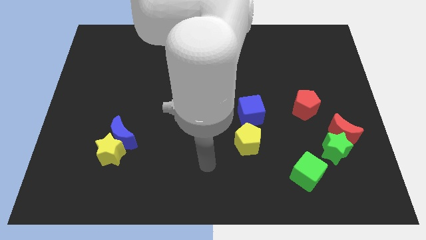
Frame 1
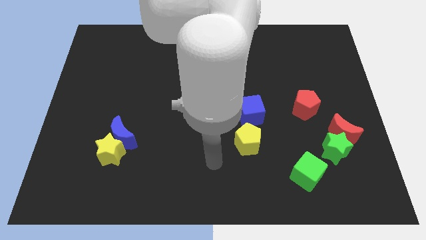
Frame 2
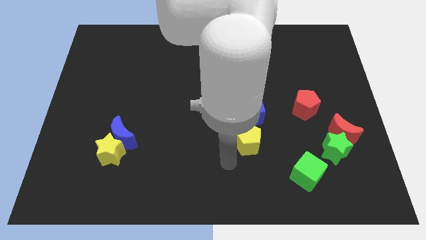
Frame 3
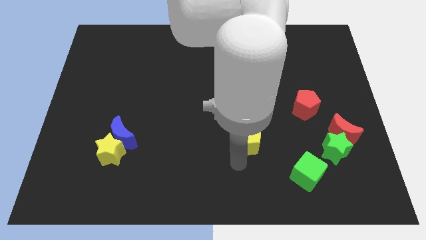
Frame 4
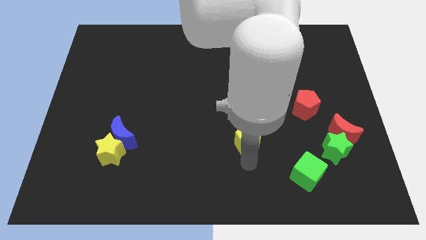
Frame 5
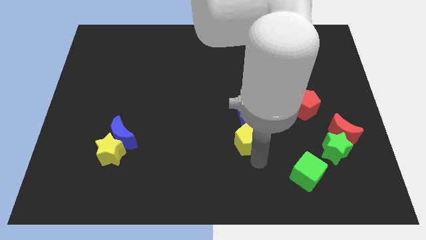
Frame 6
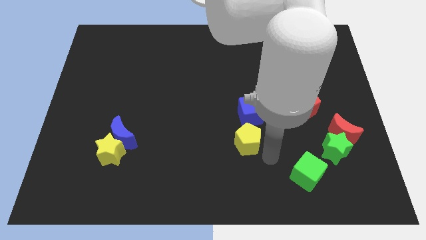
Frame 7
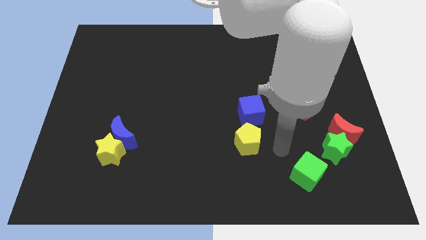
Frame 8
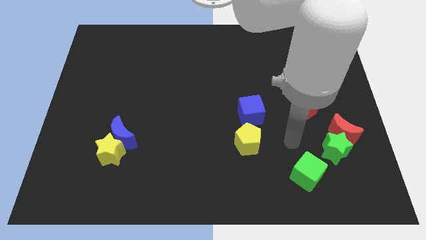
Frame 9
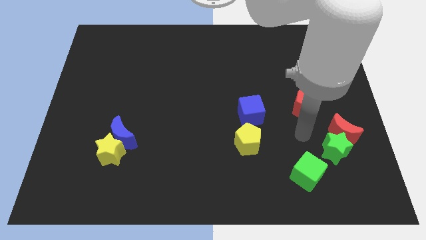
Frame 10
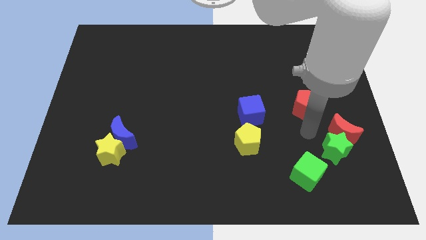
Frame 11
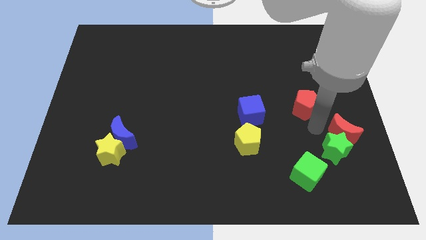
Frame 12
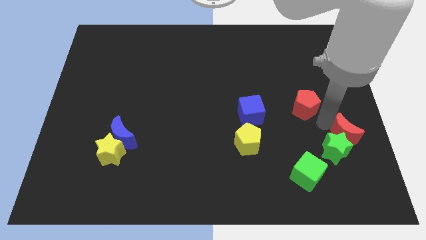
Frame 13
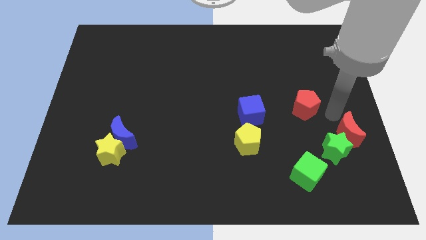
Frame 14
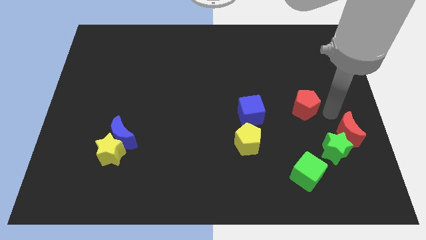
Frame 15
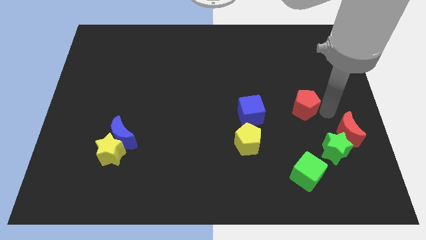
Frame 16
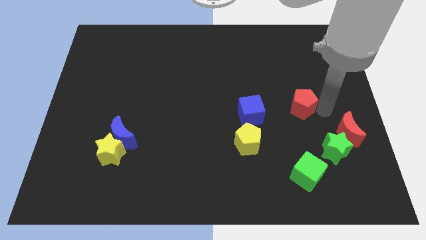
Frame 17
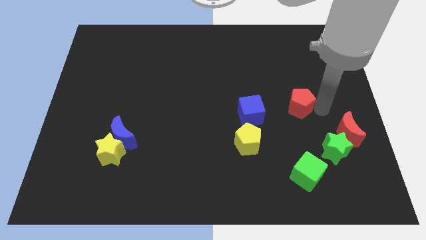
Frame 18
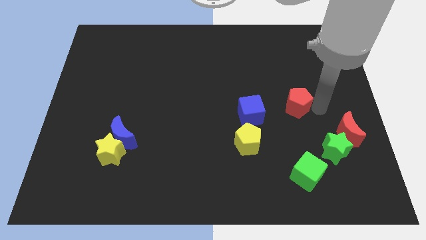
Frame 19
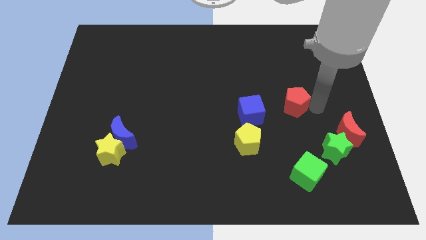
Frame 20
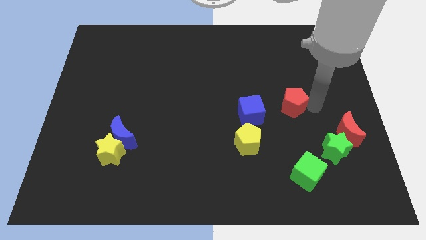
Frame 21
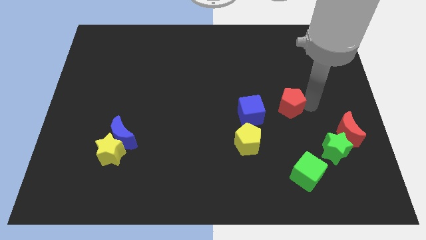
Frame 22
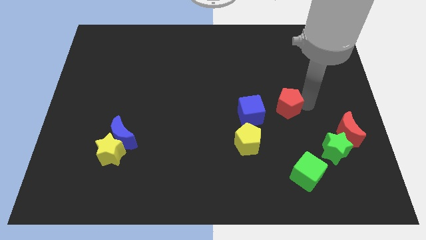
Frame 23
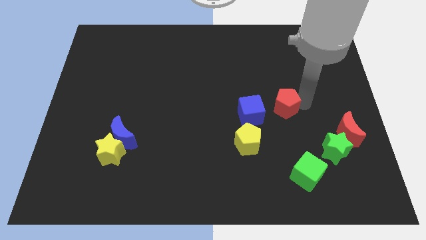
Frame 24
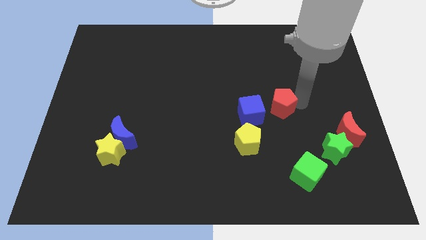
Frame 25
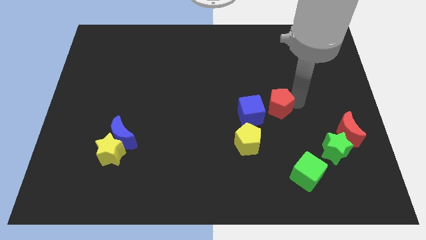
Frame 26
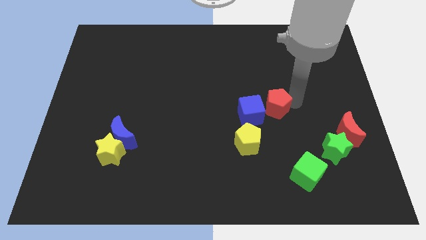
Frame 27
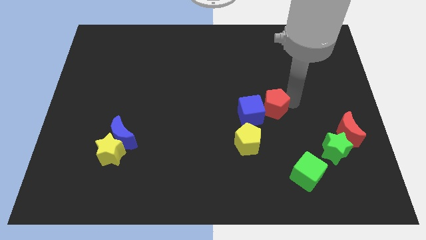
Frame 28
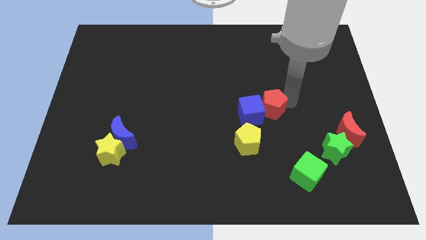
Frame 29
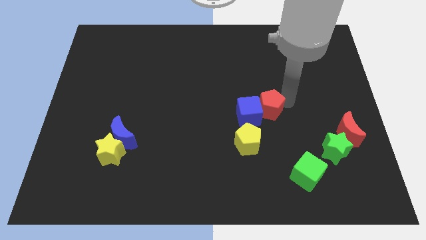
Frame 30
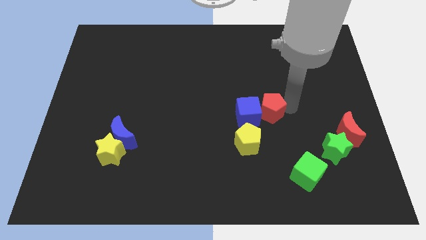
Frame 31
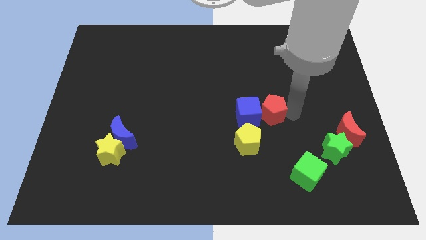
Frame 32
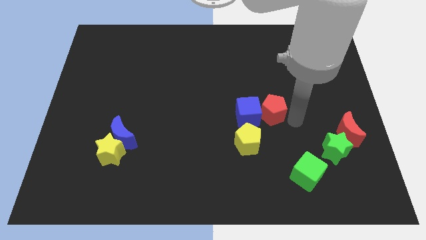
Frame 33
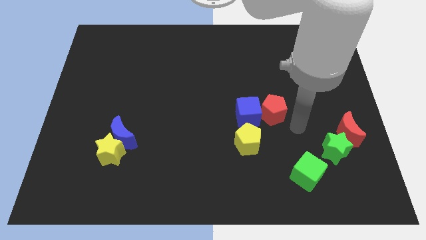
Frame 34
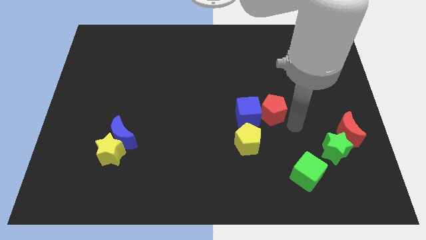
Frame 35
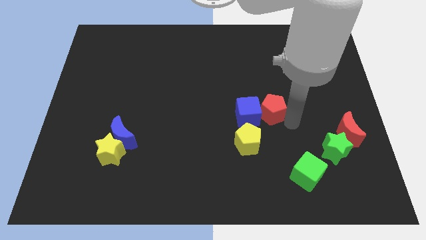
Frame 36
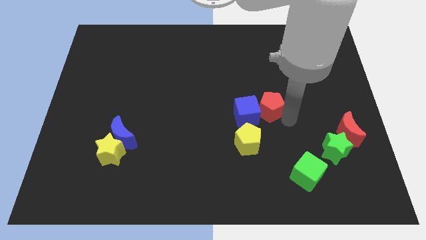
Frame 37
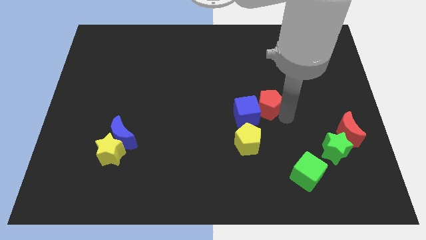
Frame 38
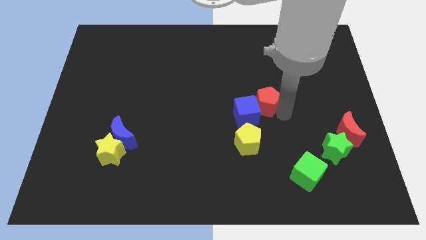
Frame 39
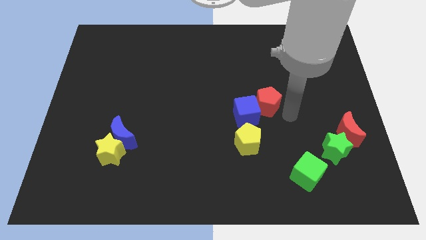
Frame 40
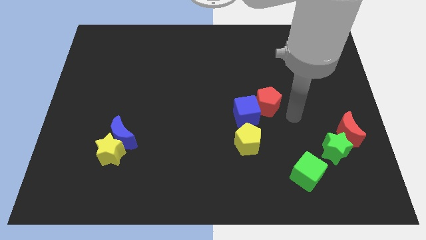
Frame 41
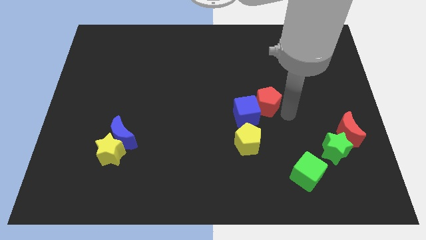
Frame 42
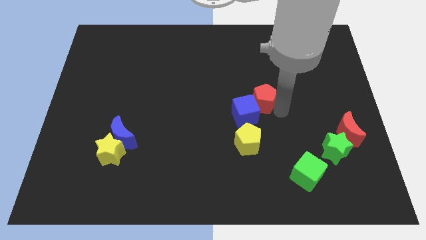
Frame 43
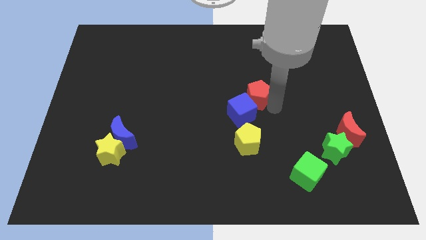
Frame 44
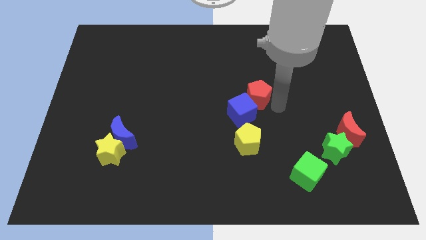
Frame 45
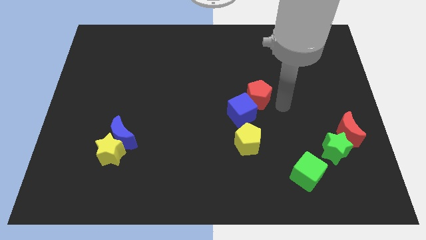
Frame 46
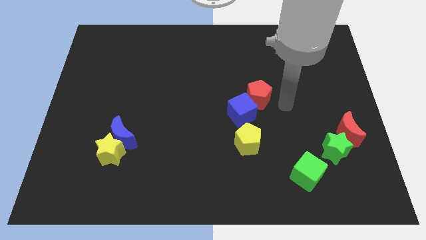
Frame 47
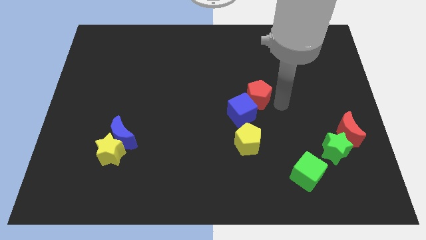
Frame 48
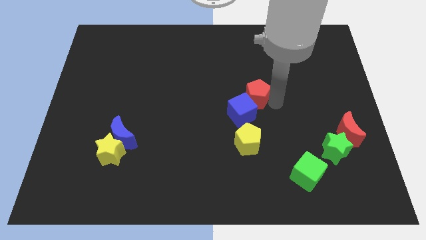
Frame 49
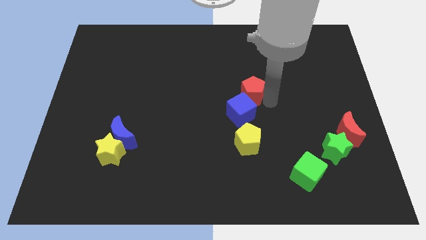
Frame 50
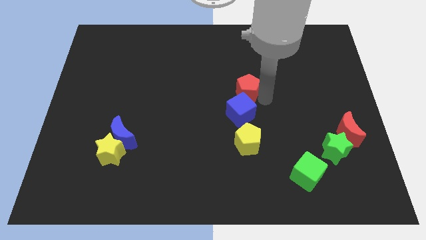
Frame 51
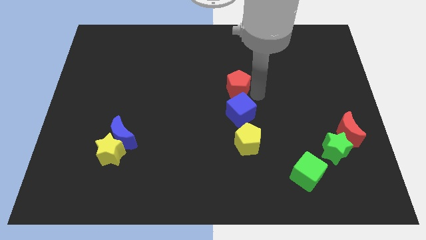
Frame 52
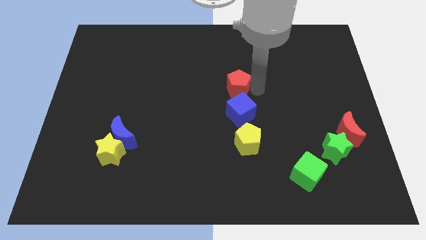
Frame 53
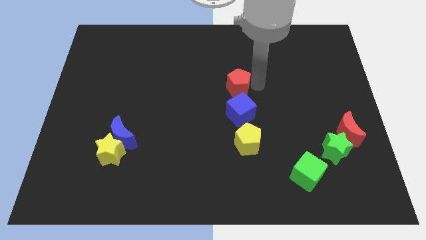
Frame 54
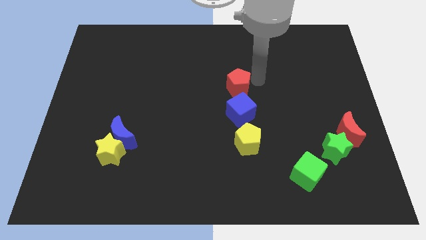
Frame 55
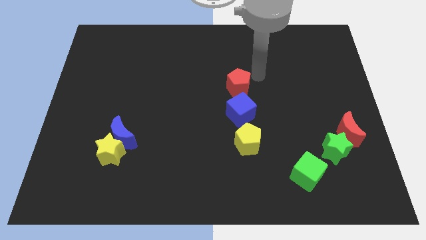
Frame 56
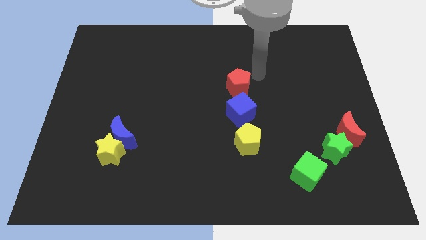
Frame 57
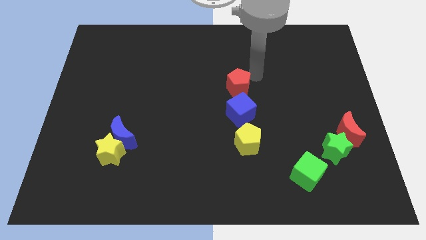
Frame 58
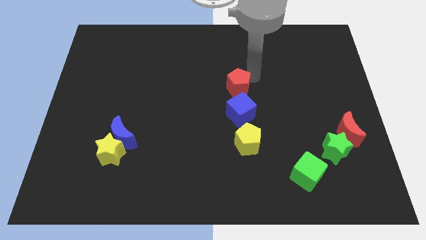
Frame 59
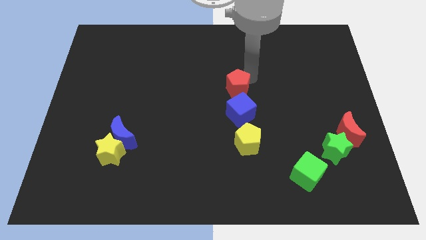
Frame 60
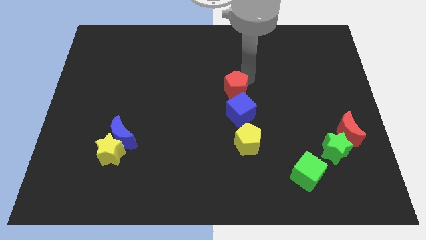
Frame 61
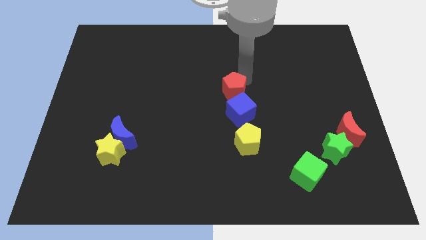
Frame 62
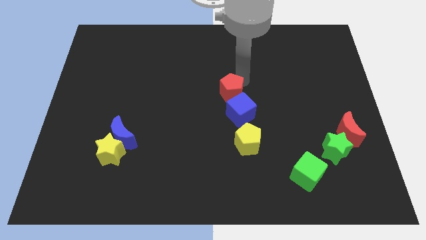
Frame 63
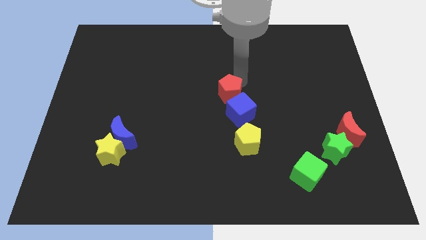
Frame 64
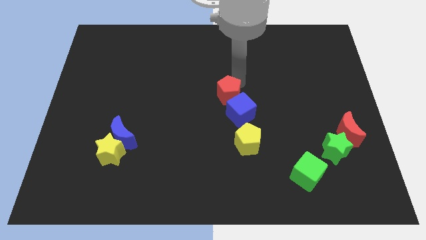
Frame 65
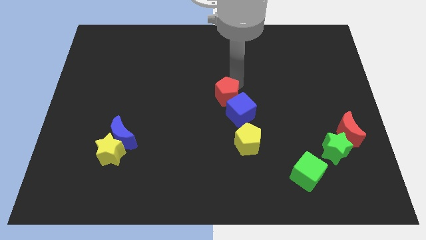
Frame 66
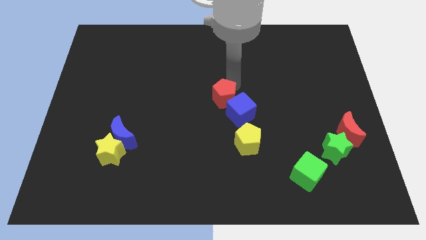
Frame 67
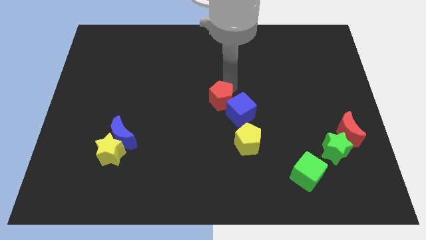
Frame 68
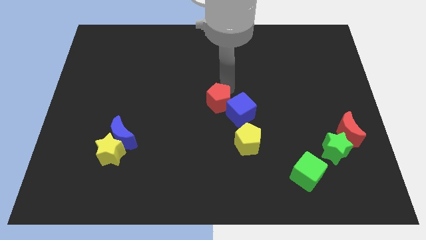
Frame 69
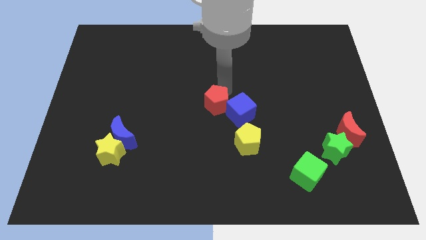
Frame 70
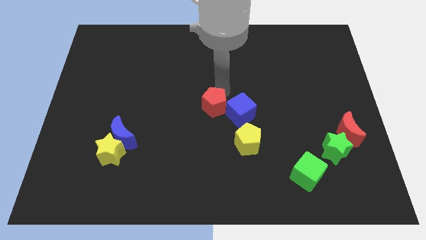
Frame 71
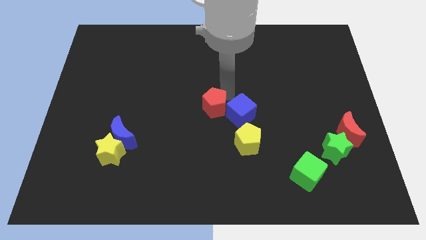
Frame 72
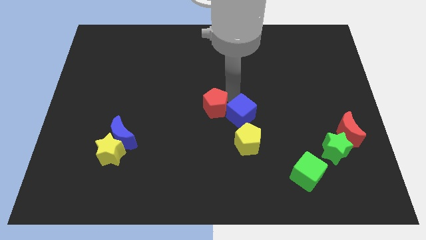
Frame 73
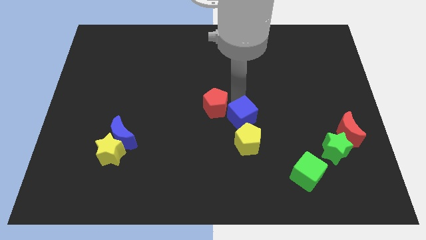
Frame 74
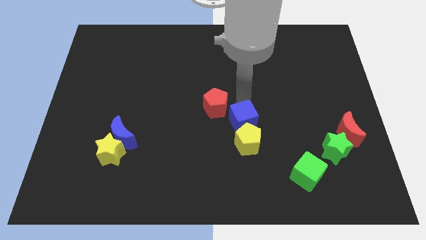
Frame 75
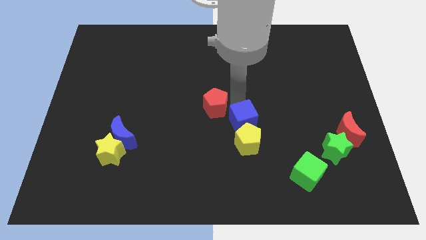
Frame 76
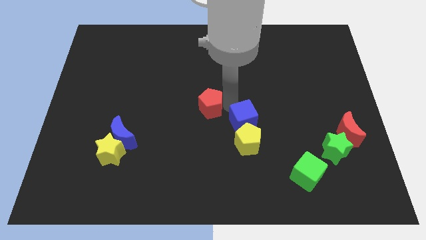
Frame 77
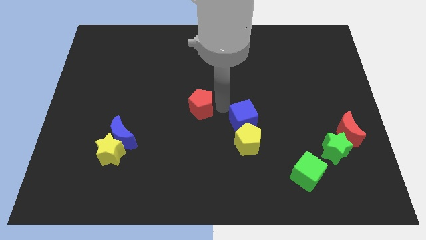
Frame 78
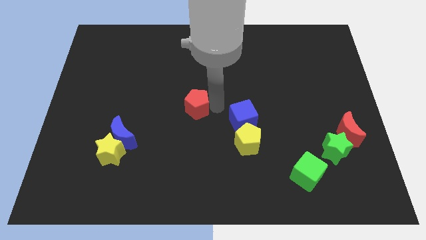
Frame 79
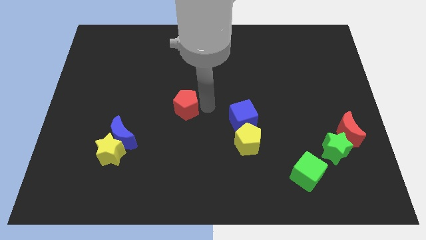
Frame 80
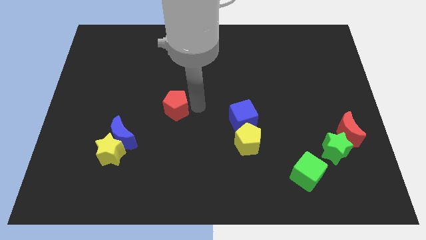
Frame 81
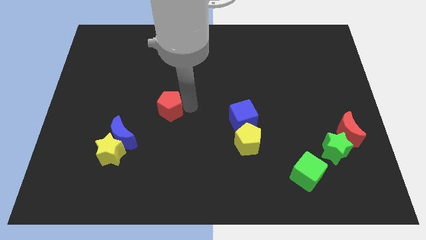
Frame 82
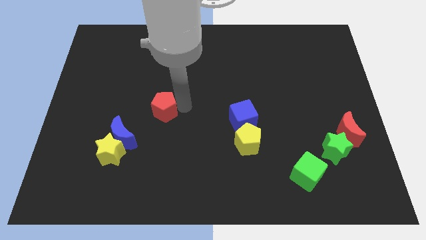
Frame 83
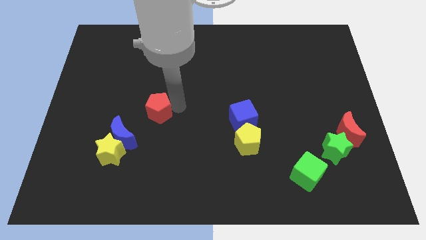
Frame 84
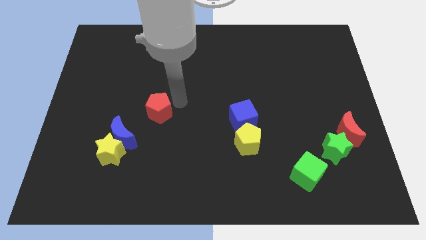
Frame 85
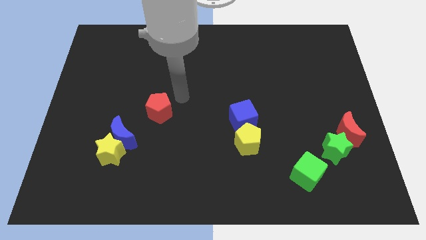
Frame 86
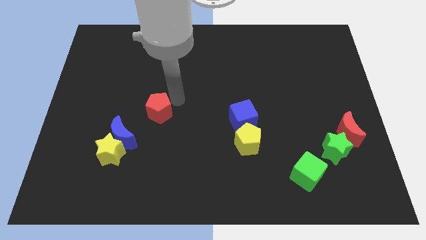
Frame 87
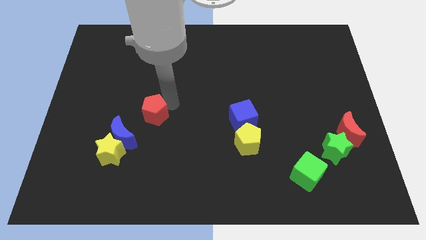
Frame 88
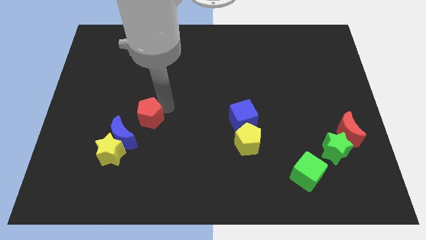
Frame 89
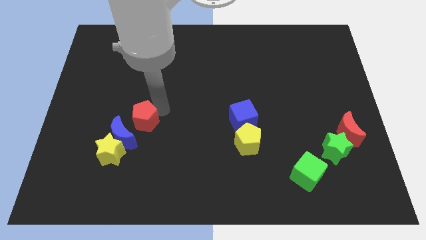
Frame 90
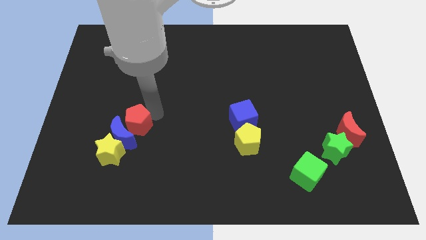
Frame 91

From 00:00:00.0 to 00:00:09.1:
move the red pentagon to the blue moon
